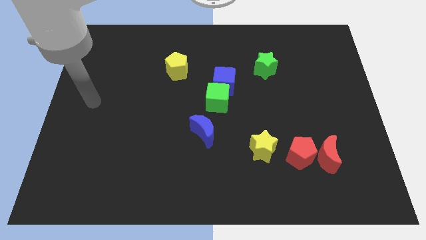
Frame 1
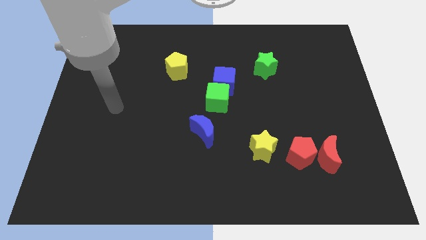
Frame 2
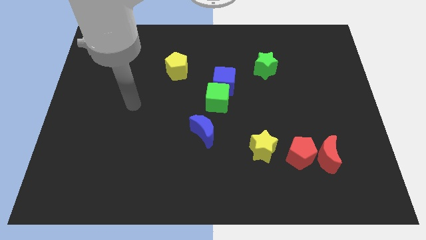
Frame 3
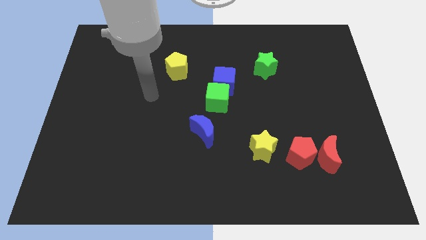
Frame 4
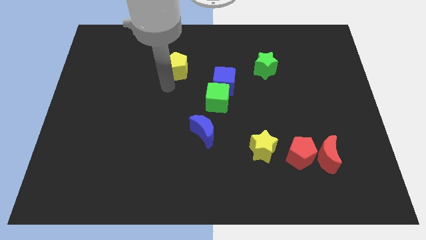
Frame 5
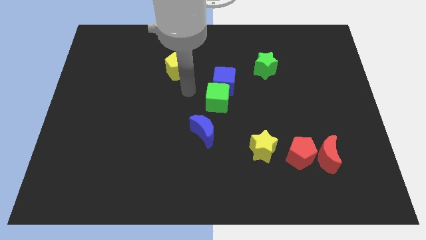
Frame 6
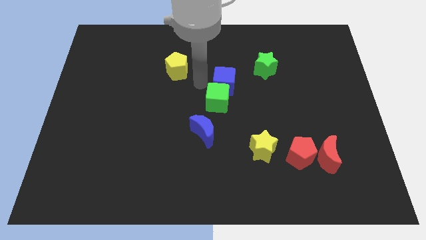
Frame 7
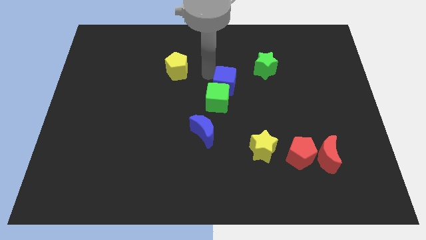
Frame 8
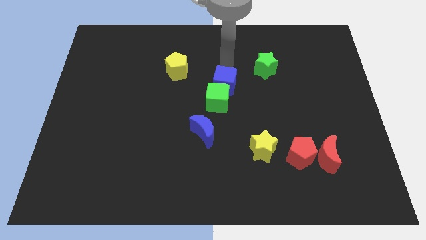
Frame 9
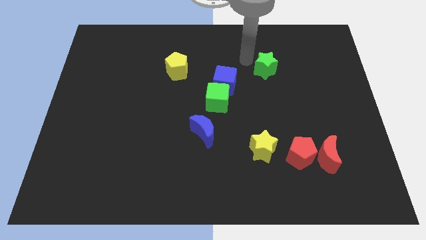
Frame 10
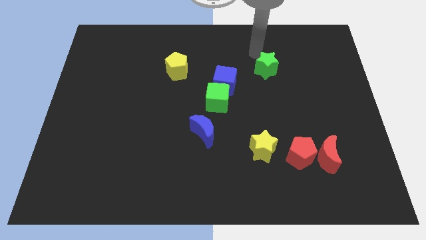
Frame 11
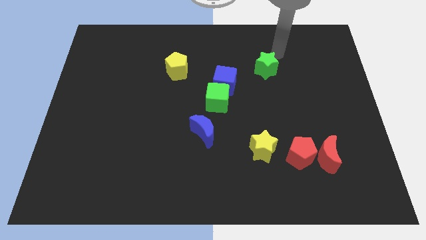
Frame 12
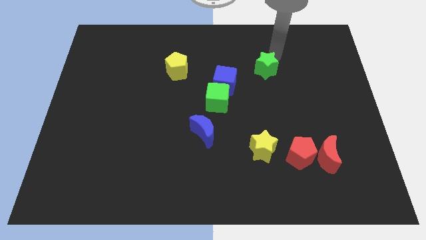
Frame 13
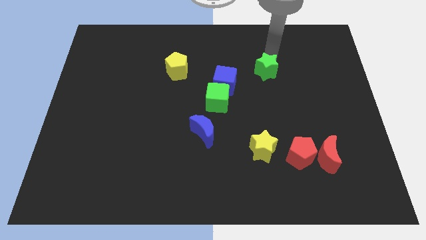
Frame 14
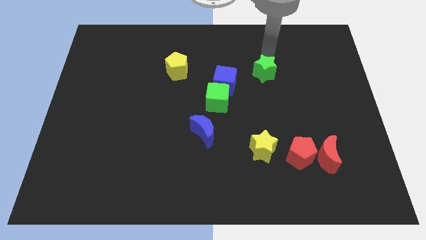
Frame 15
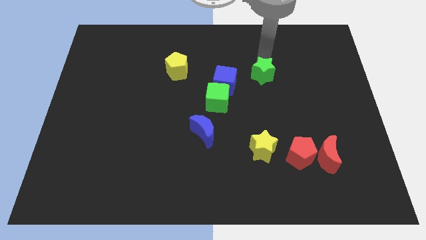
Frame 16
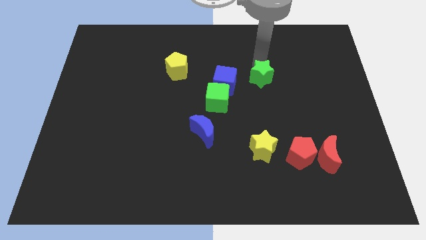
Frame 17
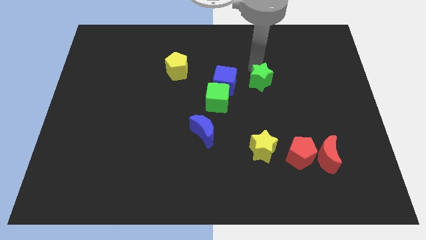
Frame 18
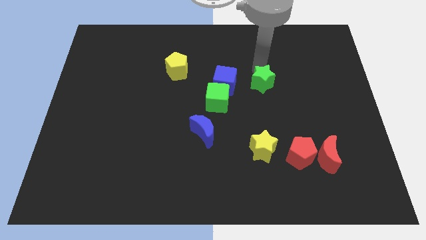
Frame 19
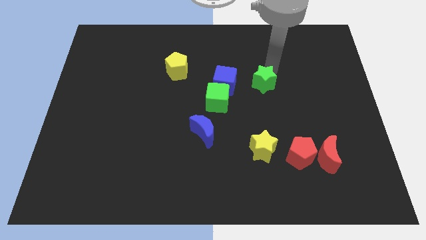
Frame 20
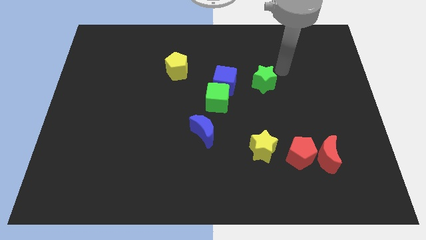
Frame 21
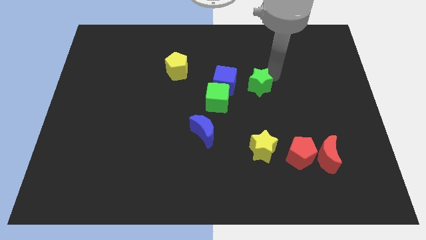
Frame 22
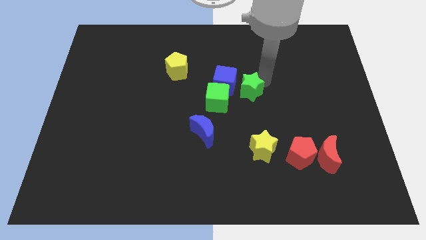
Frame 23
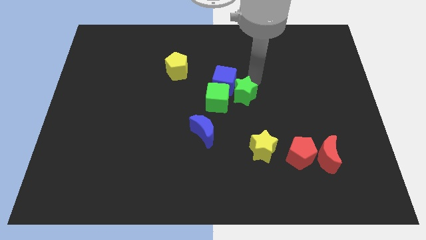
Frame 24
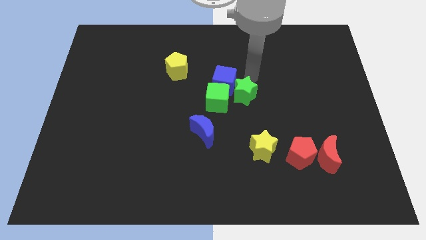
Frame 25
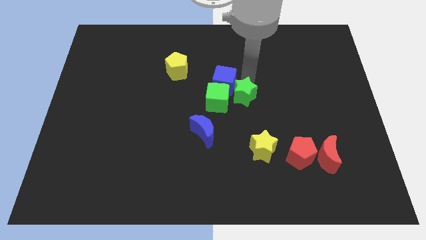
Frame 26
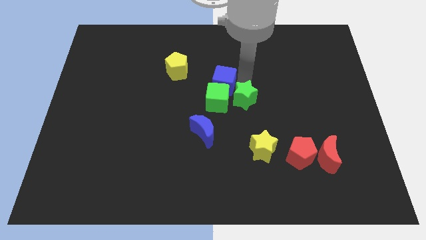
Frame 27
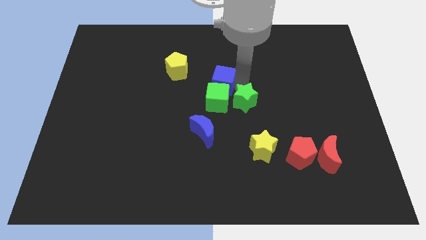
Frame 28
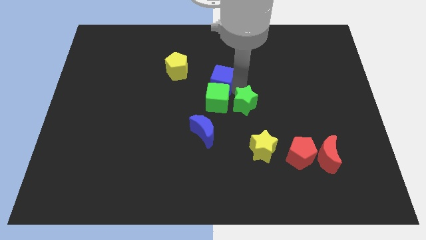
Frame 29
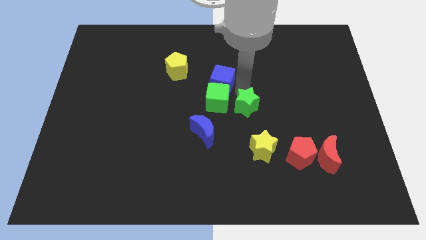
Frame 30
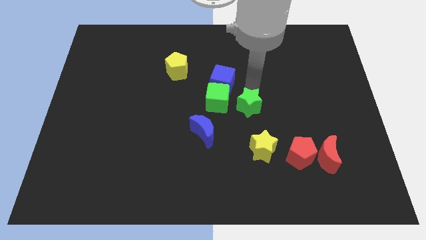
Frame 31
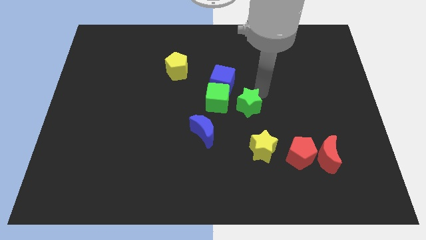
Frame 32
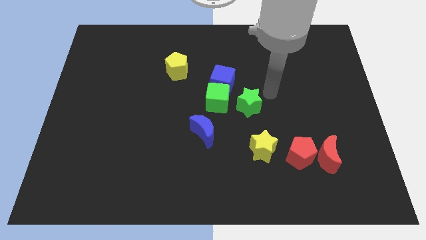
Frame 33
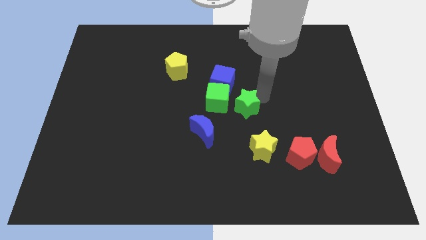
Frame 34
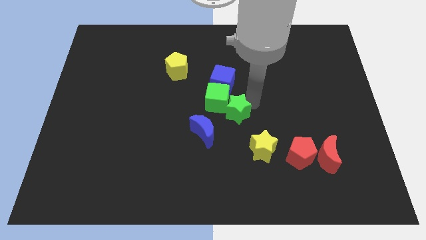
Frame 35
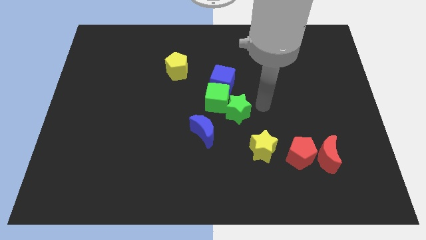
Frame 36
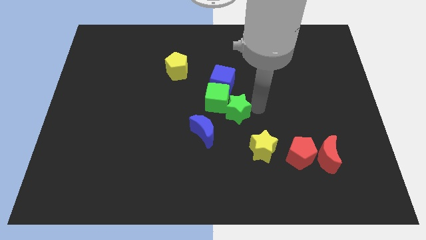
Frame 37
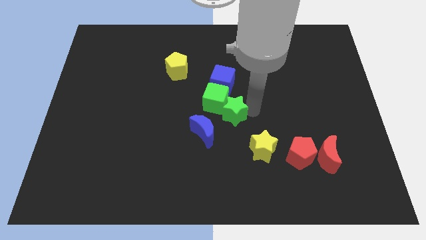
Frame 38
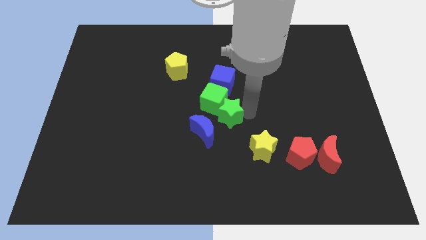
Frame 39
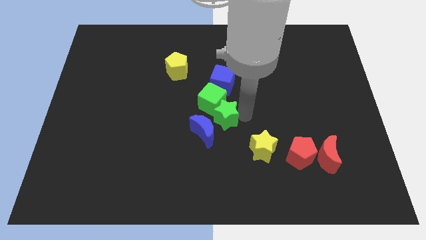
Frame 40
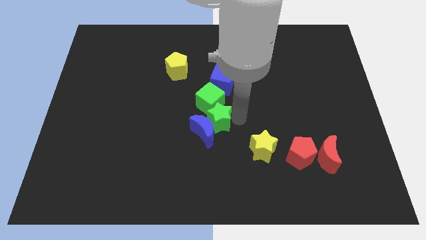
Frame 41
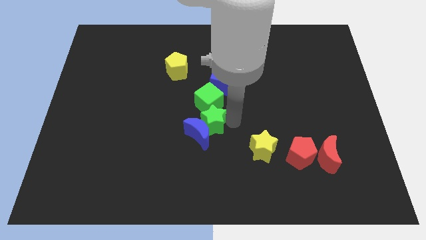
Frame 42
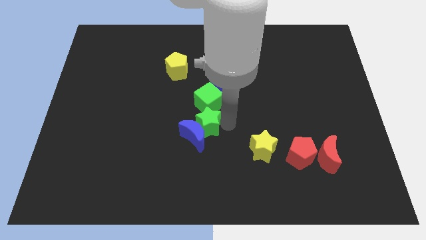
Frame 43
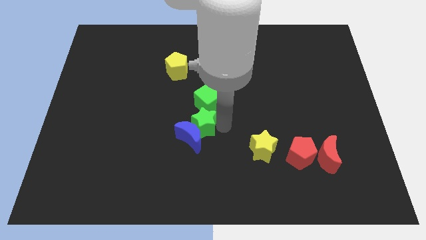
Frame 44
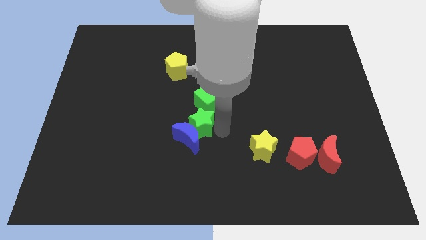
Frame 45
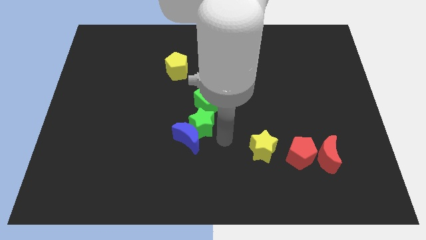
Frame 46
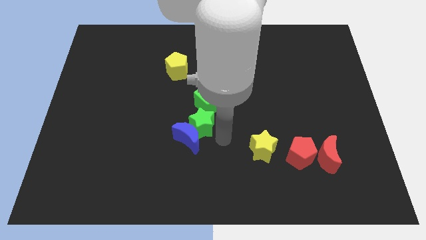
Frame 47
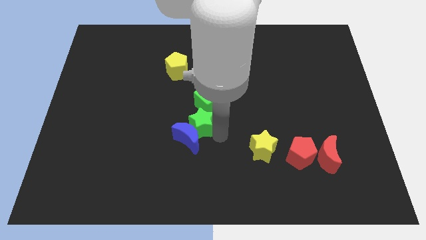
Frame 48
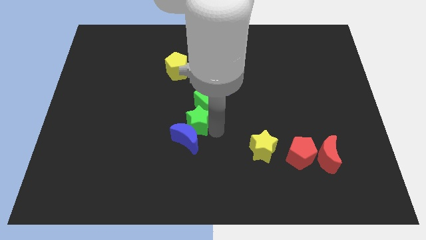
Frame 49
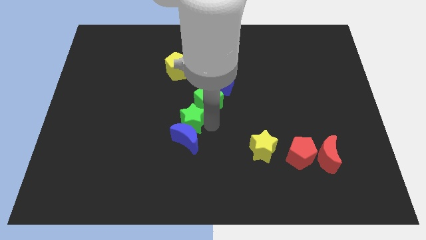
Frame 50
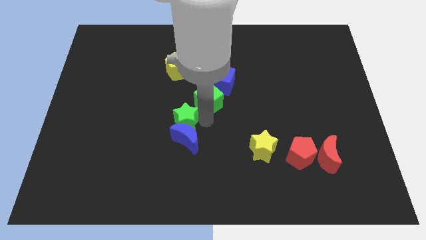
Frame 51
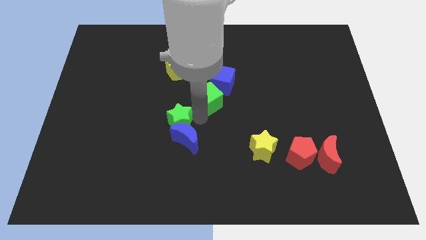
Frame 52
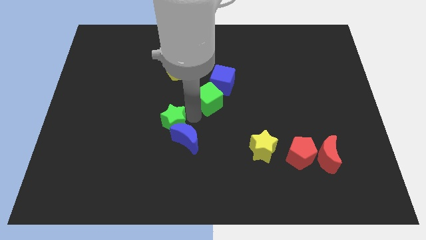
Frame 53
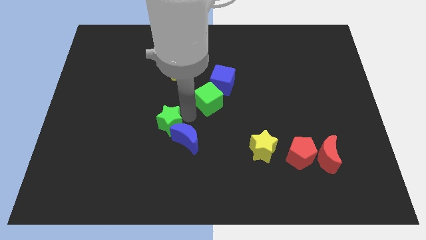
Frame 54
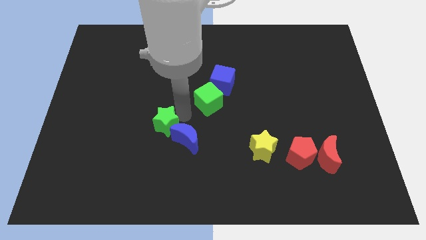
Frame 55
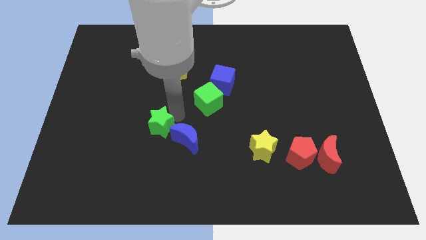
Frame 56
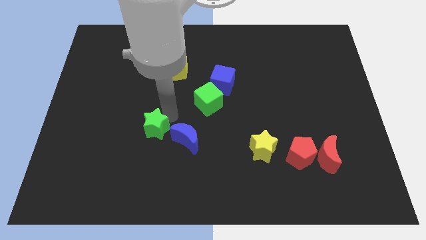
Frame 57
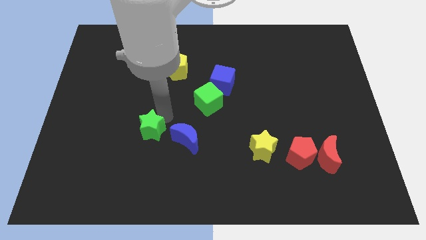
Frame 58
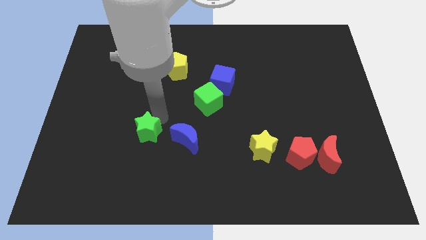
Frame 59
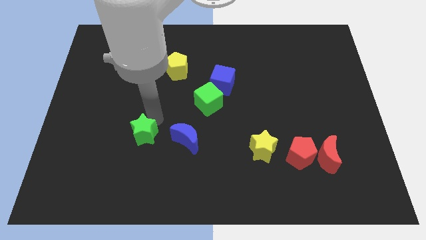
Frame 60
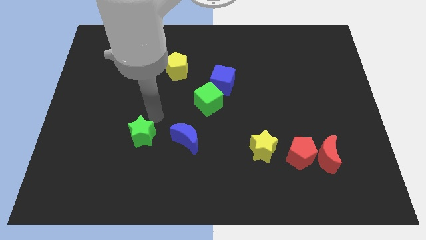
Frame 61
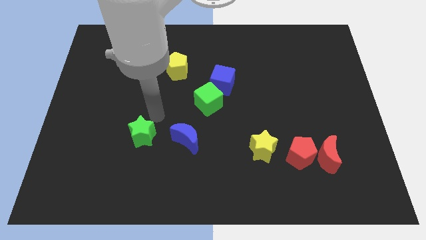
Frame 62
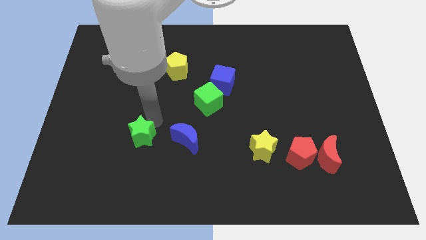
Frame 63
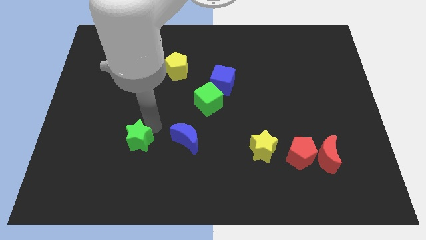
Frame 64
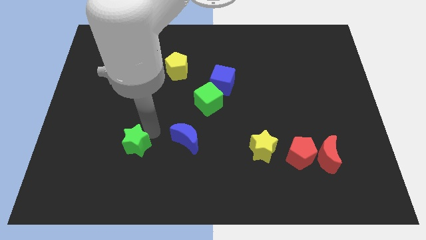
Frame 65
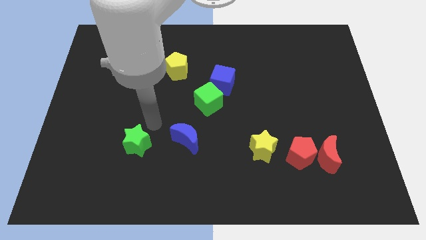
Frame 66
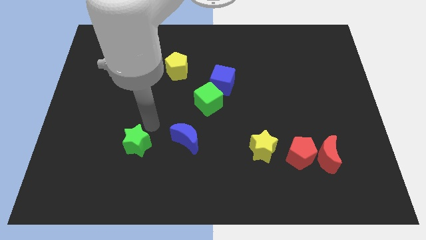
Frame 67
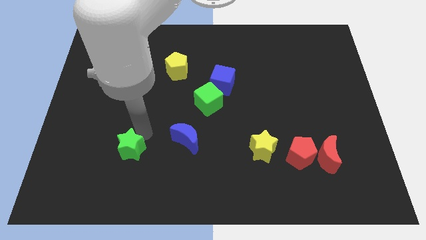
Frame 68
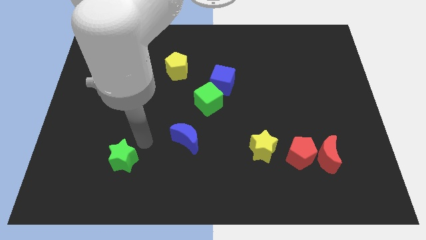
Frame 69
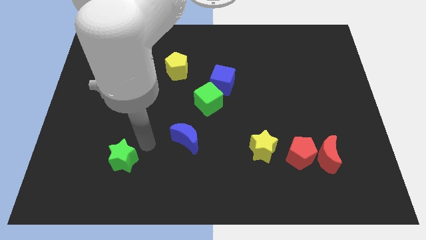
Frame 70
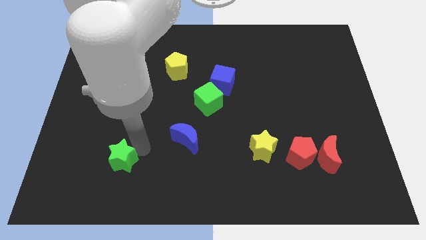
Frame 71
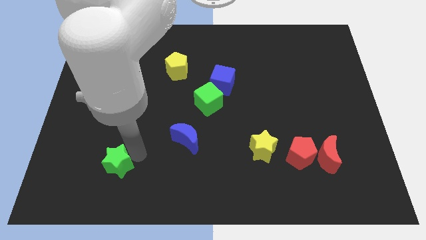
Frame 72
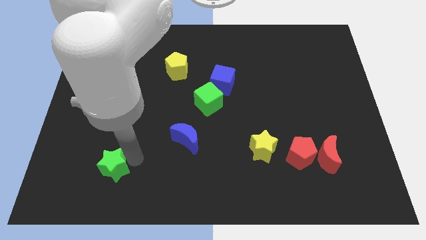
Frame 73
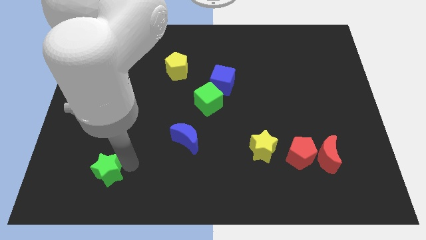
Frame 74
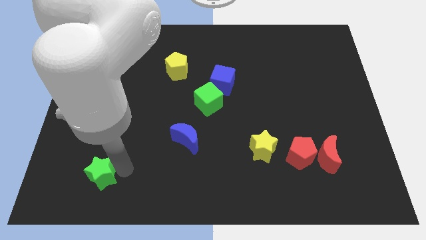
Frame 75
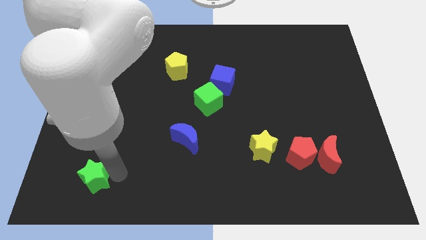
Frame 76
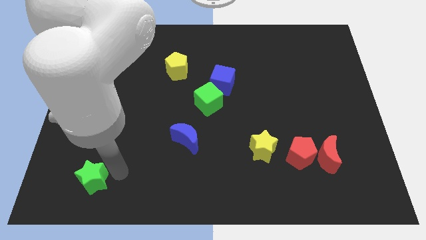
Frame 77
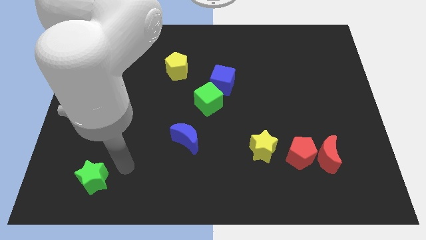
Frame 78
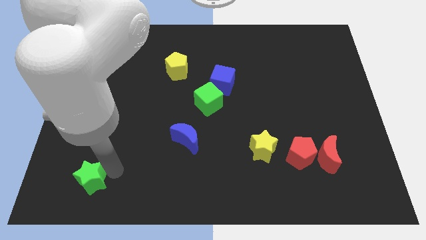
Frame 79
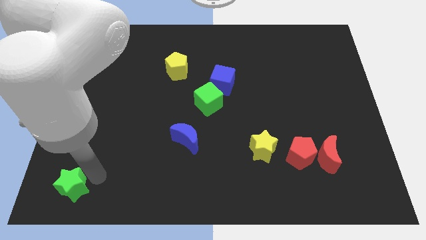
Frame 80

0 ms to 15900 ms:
push the green star to the bottom left corner
